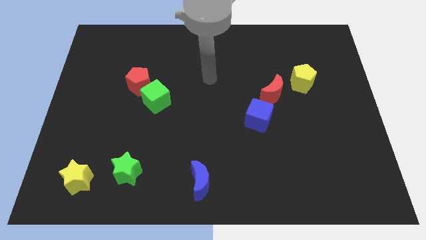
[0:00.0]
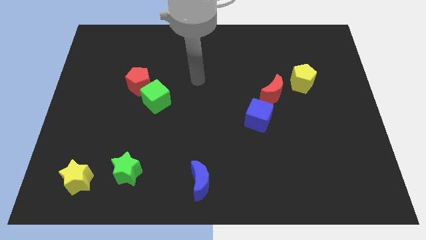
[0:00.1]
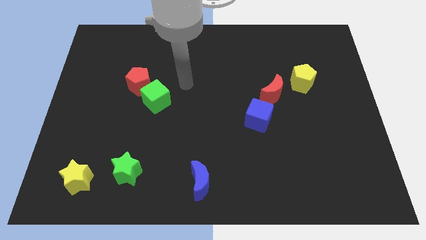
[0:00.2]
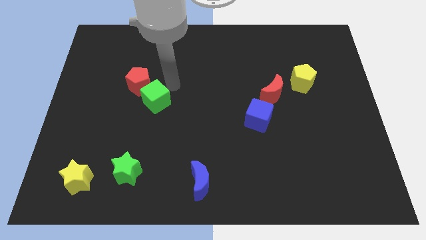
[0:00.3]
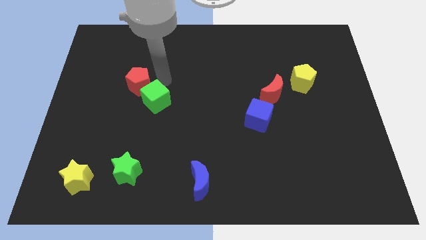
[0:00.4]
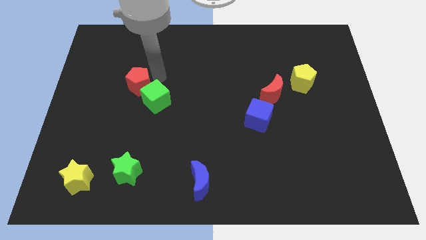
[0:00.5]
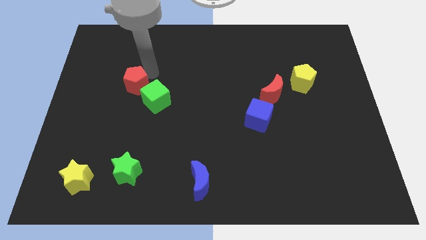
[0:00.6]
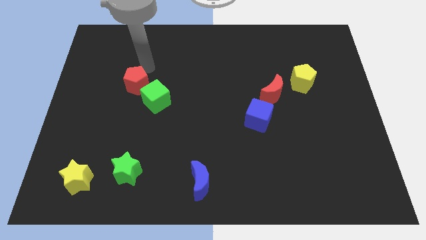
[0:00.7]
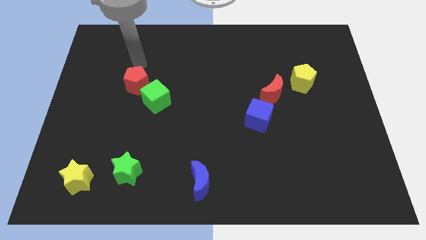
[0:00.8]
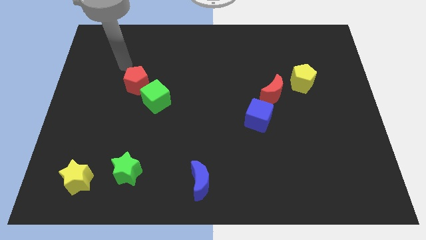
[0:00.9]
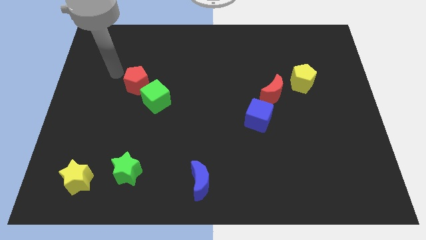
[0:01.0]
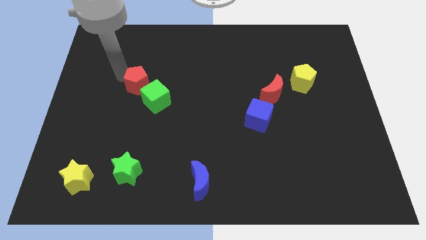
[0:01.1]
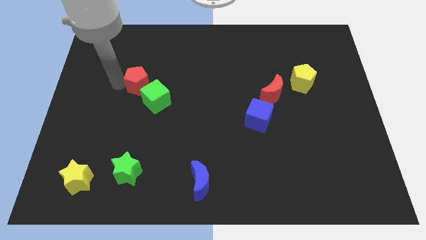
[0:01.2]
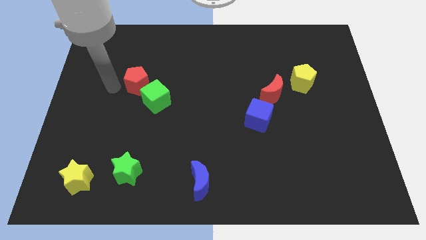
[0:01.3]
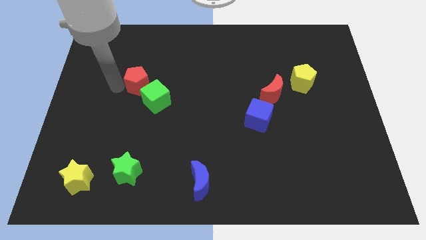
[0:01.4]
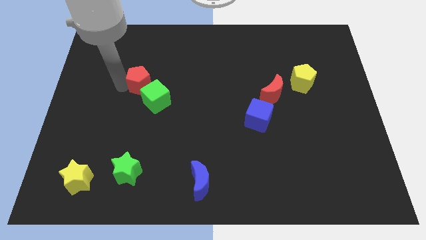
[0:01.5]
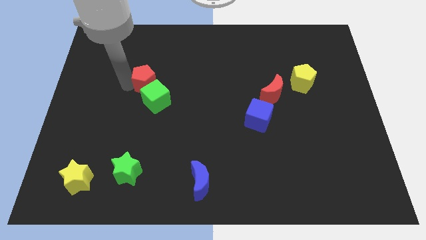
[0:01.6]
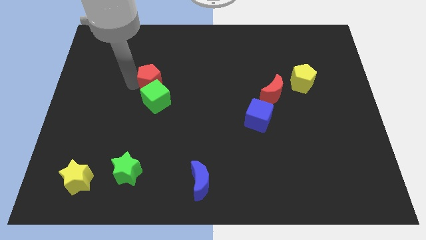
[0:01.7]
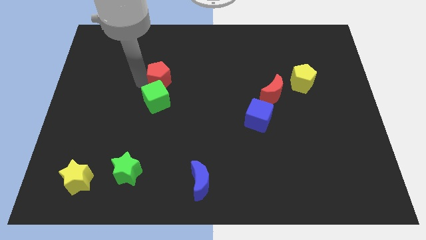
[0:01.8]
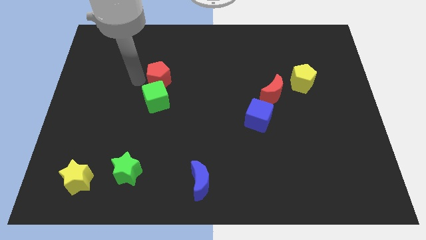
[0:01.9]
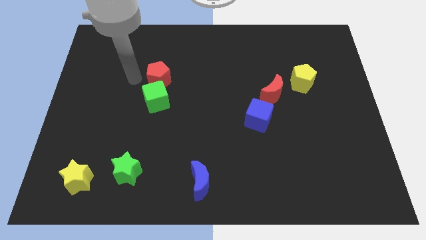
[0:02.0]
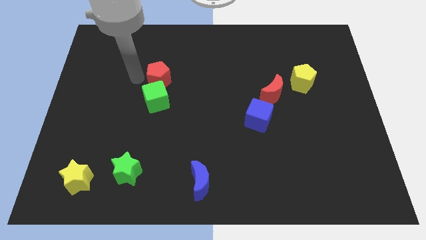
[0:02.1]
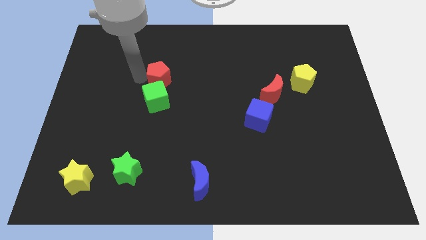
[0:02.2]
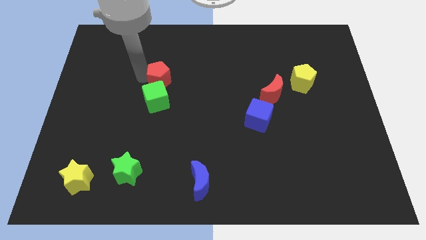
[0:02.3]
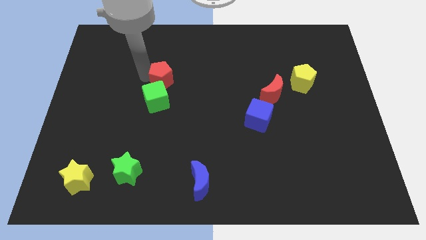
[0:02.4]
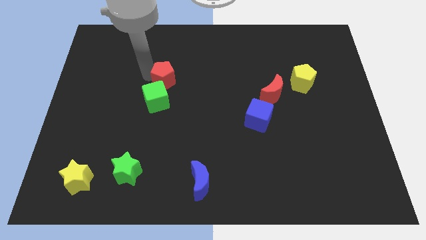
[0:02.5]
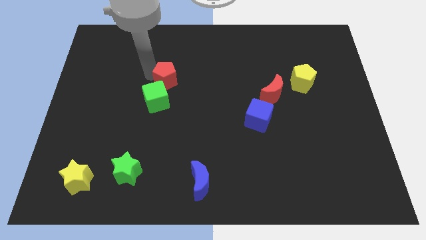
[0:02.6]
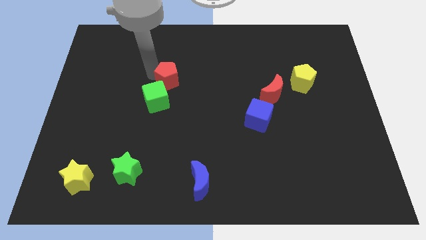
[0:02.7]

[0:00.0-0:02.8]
slightly push the red pentagon right

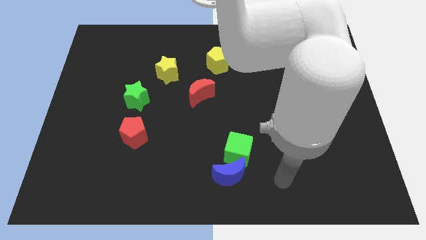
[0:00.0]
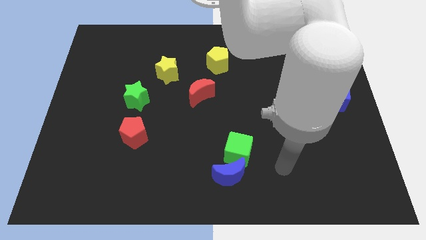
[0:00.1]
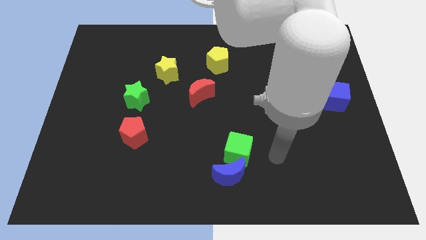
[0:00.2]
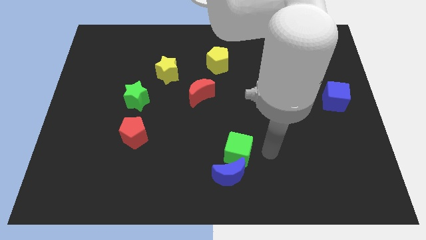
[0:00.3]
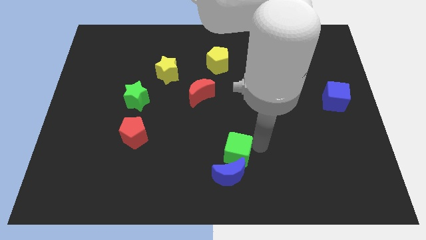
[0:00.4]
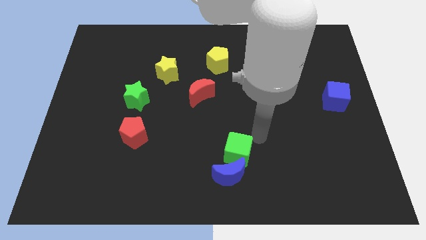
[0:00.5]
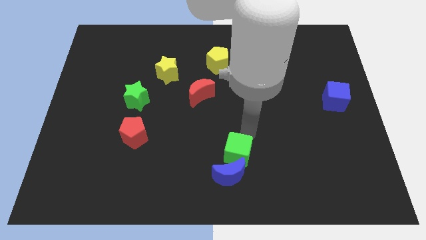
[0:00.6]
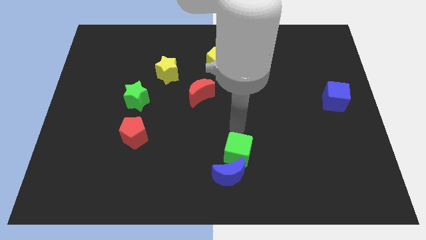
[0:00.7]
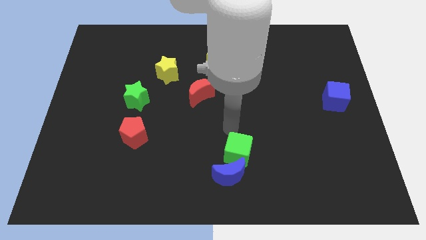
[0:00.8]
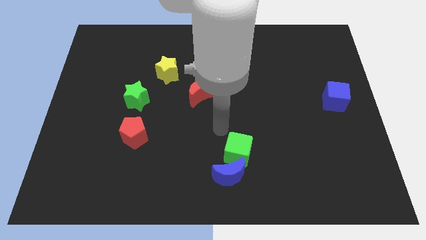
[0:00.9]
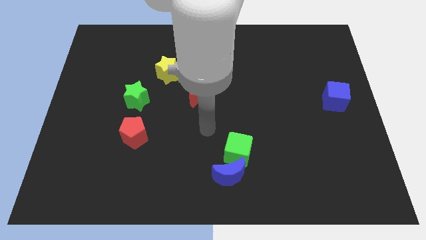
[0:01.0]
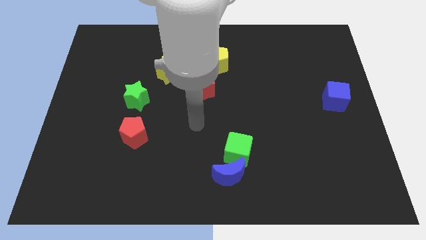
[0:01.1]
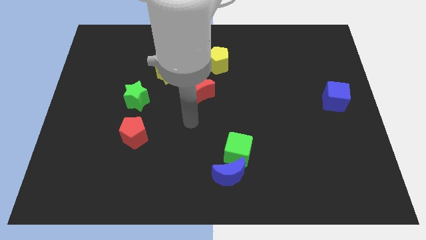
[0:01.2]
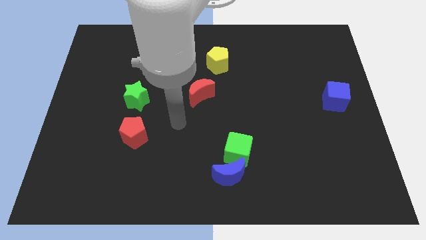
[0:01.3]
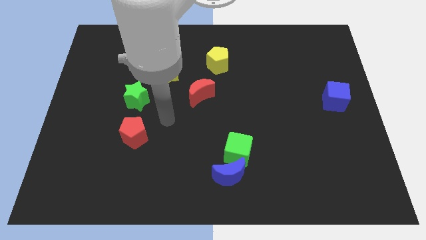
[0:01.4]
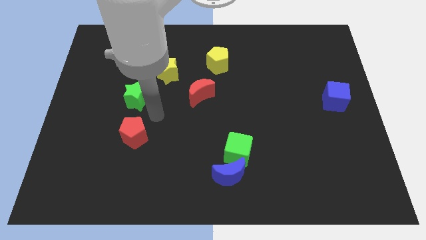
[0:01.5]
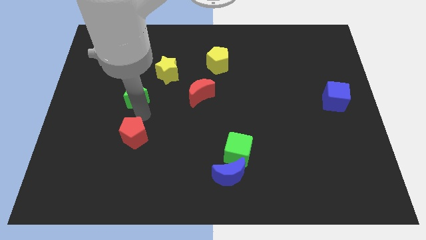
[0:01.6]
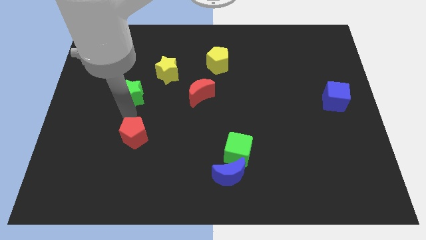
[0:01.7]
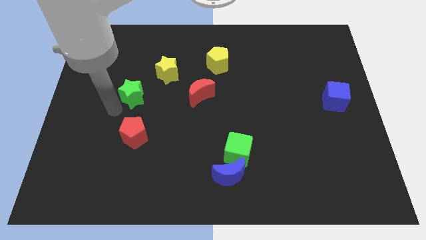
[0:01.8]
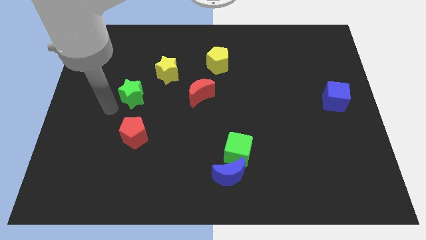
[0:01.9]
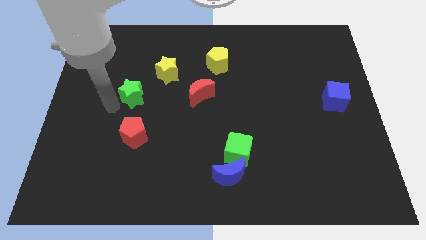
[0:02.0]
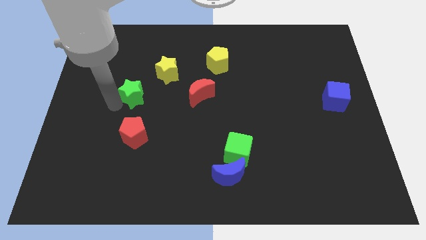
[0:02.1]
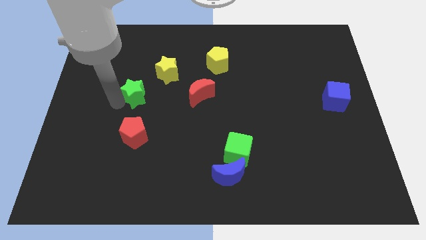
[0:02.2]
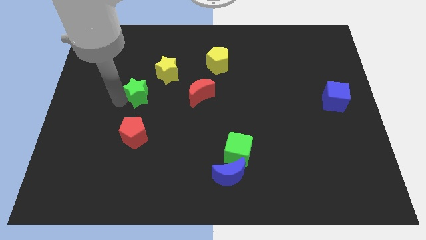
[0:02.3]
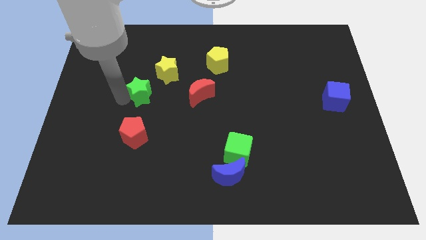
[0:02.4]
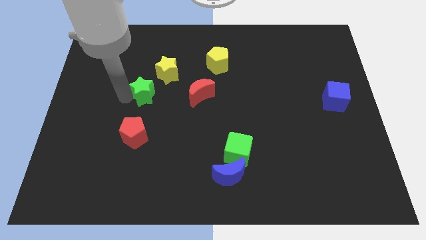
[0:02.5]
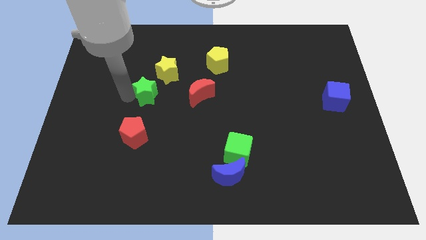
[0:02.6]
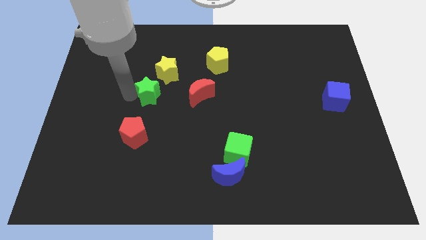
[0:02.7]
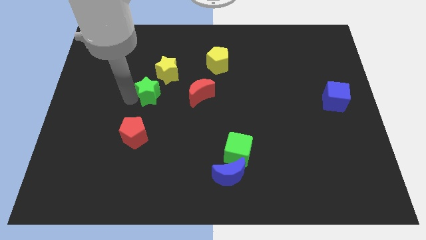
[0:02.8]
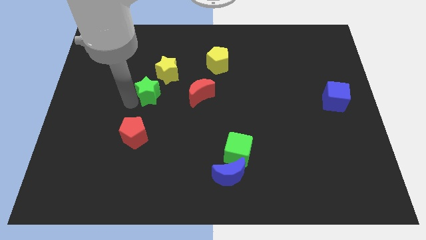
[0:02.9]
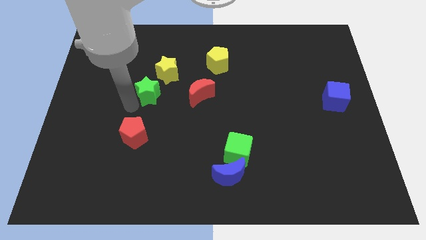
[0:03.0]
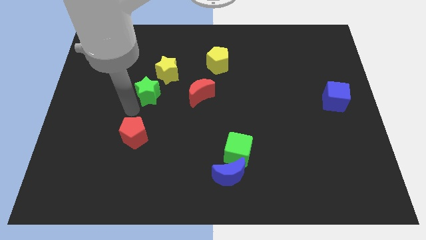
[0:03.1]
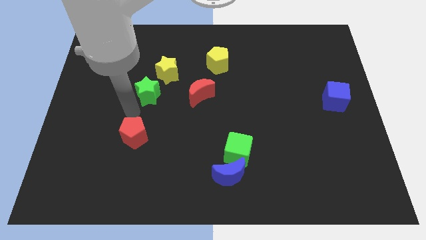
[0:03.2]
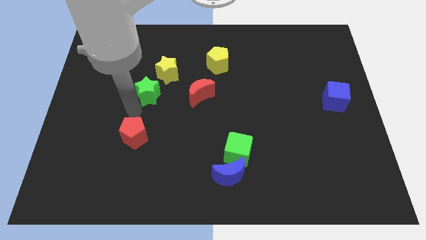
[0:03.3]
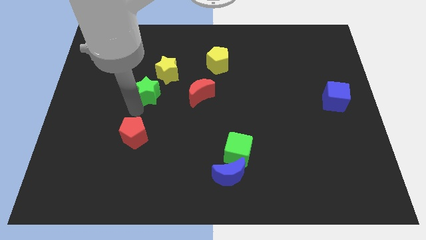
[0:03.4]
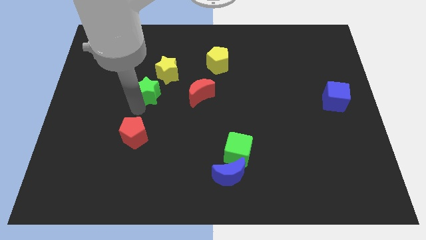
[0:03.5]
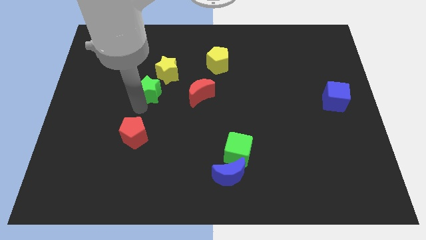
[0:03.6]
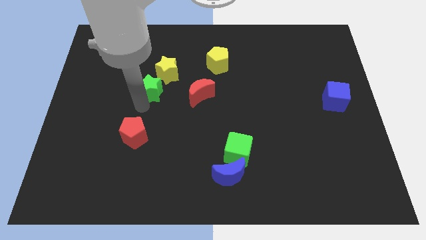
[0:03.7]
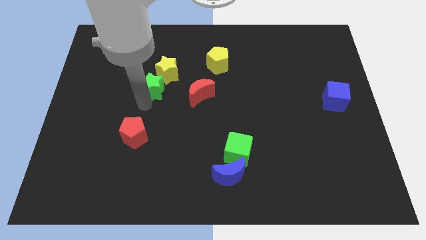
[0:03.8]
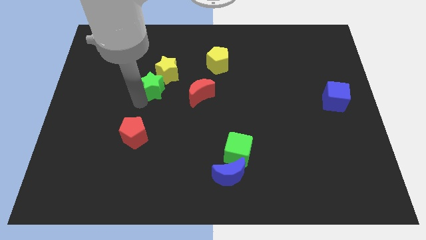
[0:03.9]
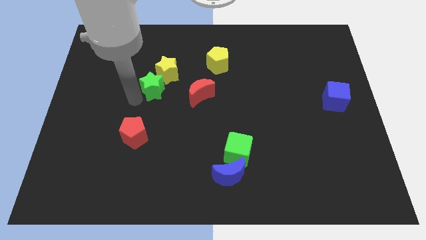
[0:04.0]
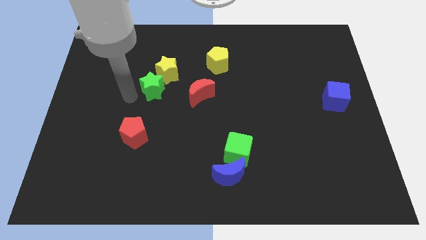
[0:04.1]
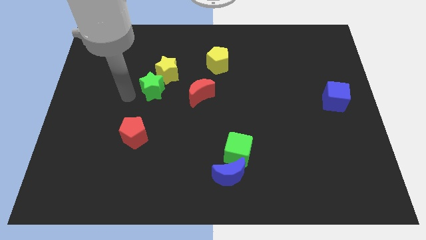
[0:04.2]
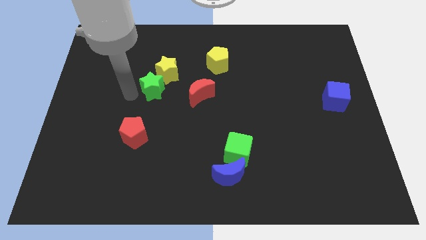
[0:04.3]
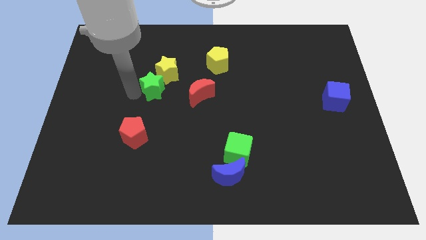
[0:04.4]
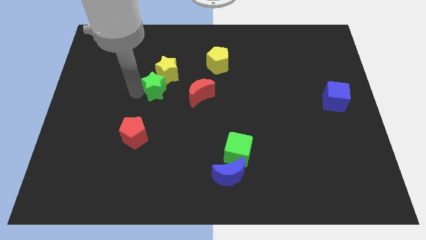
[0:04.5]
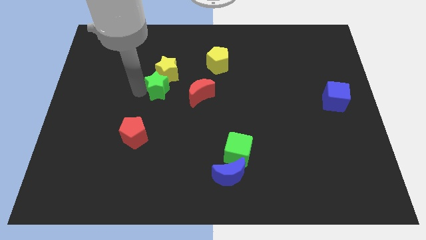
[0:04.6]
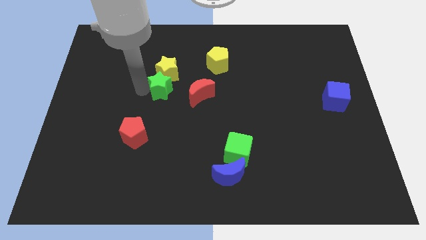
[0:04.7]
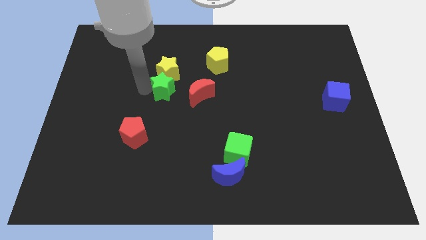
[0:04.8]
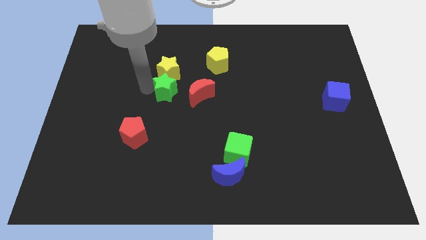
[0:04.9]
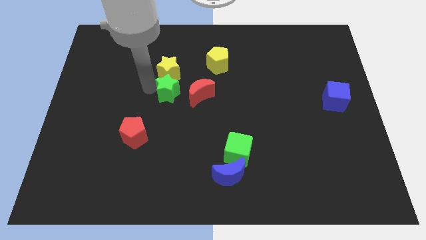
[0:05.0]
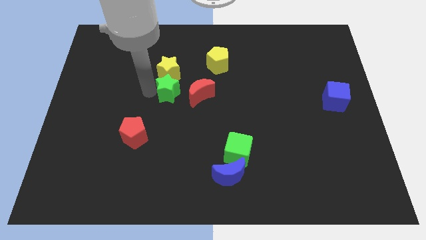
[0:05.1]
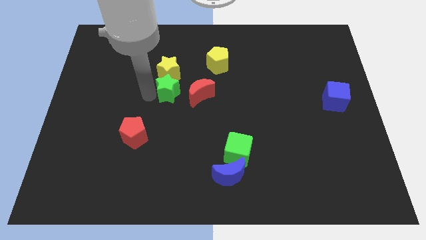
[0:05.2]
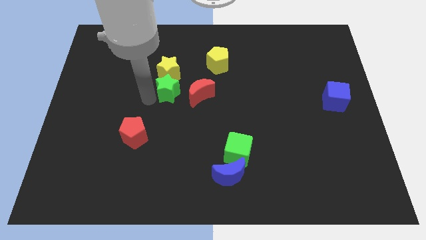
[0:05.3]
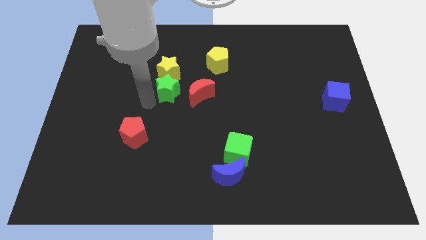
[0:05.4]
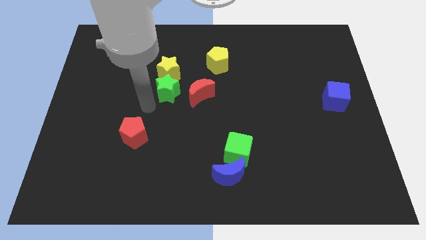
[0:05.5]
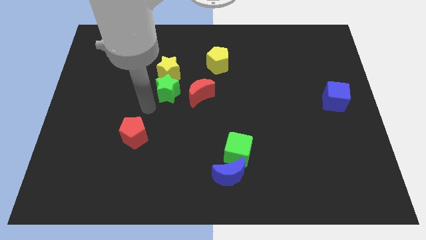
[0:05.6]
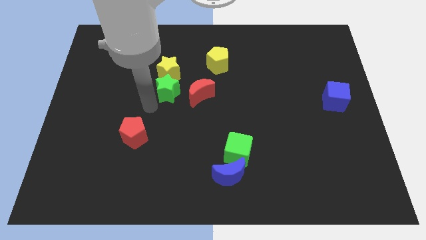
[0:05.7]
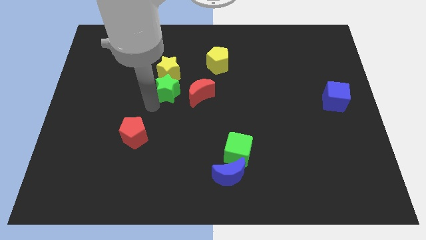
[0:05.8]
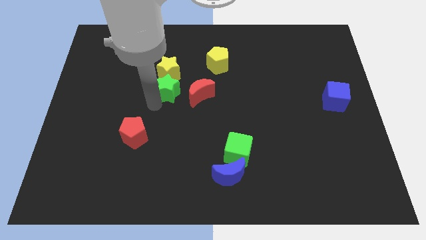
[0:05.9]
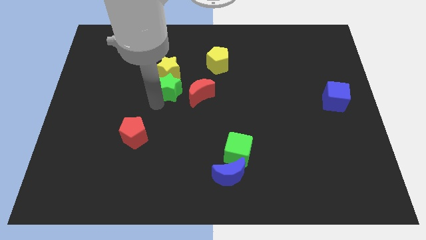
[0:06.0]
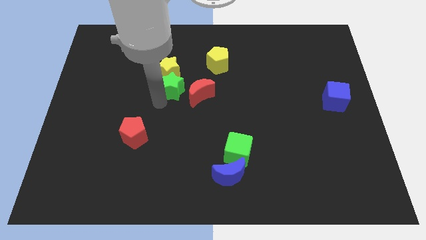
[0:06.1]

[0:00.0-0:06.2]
push the green star somewhat up and then right
